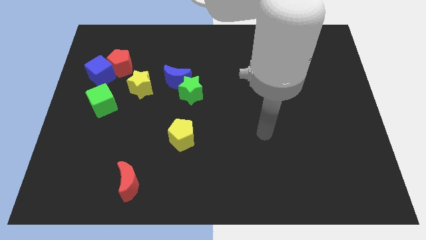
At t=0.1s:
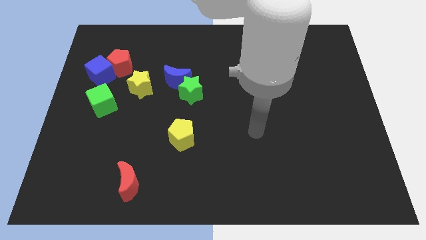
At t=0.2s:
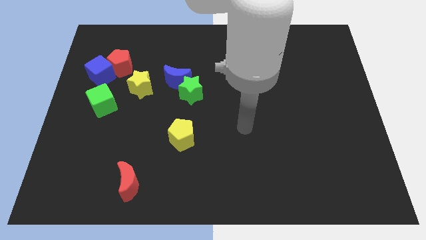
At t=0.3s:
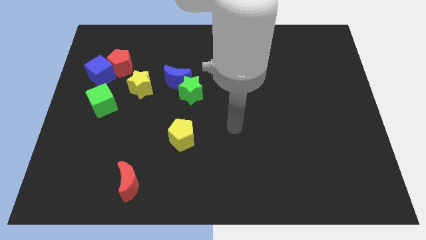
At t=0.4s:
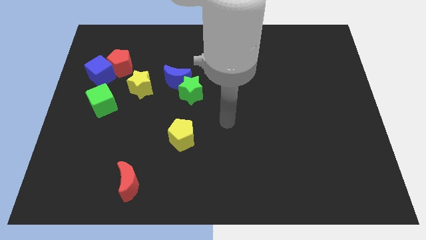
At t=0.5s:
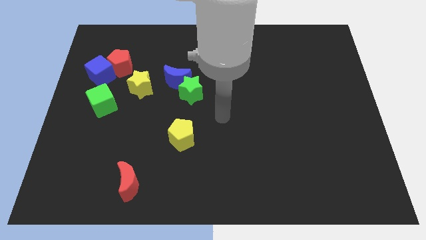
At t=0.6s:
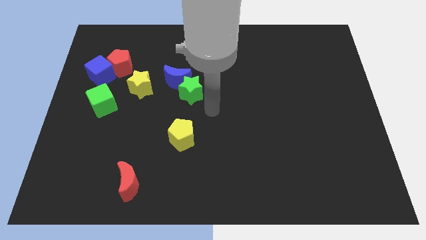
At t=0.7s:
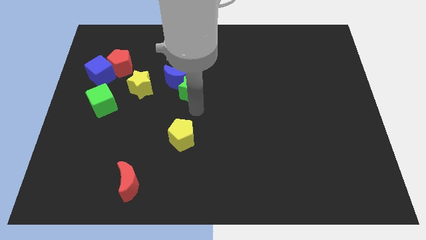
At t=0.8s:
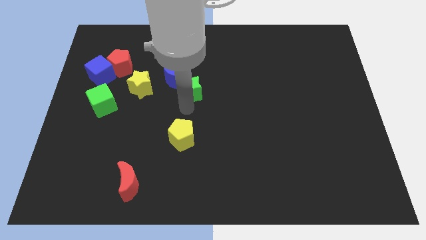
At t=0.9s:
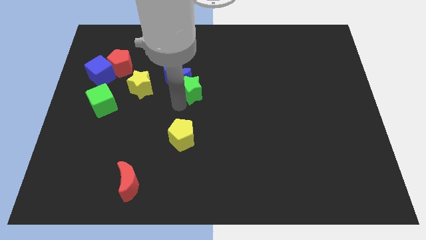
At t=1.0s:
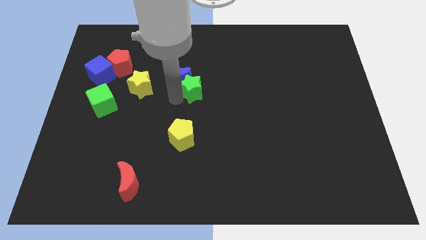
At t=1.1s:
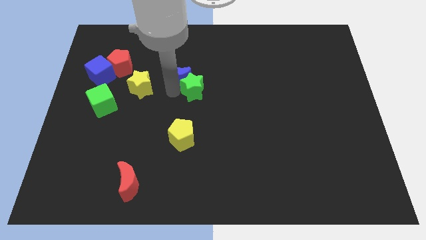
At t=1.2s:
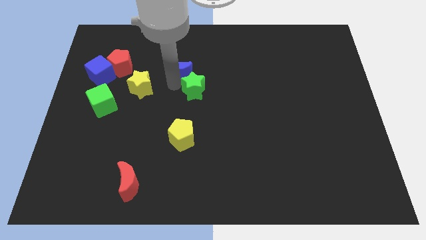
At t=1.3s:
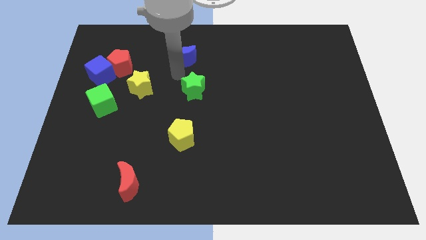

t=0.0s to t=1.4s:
separate the green star from the blue moon

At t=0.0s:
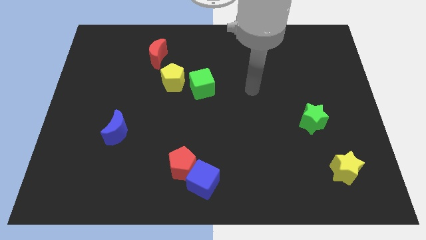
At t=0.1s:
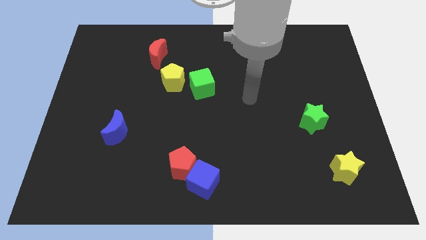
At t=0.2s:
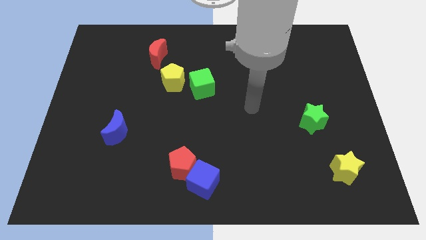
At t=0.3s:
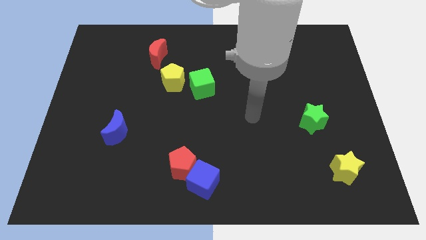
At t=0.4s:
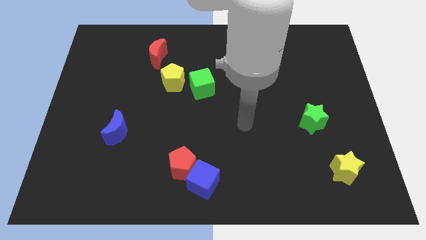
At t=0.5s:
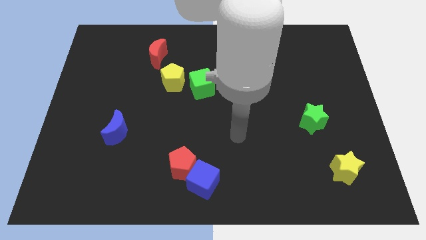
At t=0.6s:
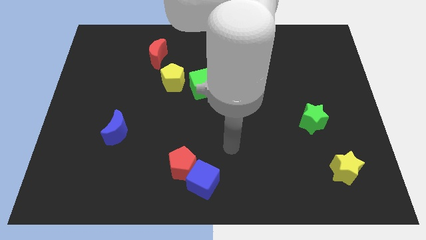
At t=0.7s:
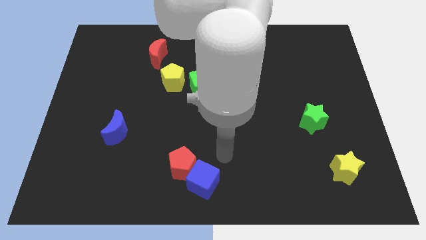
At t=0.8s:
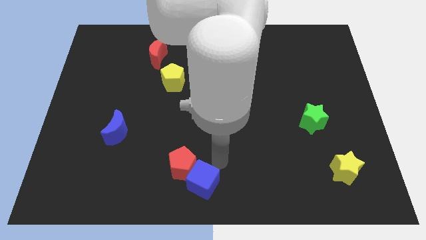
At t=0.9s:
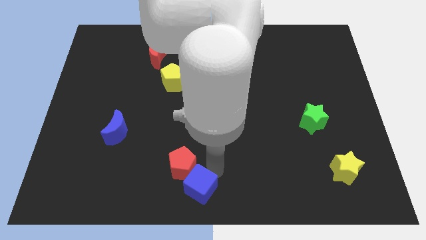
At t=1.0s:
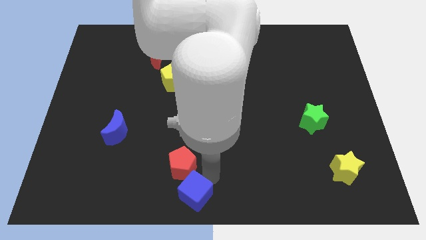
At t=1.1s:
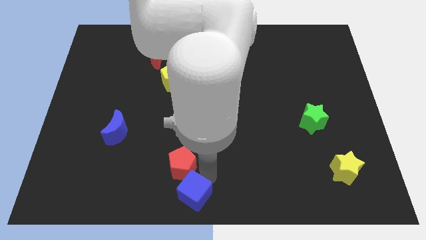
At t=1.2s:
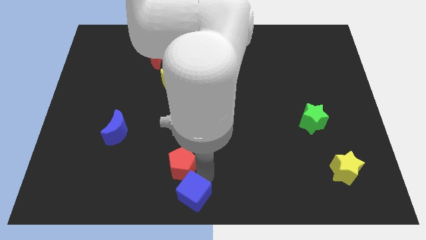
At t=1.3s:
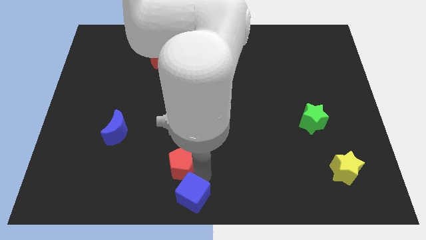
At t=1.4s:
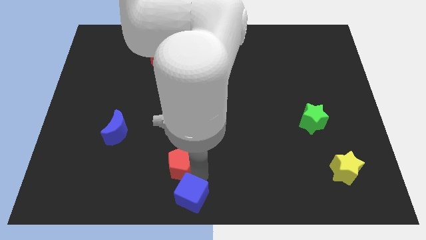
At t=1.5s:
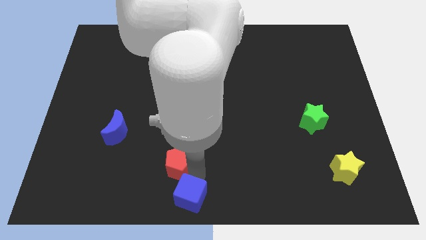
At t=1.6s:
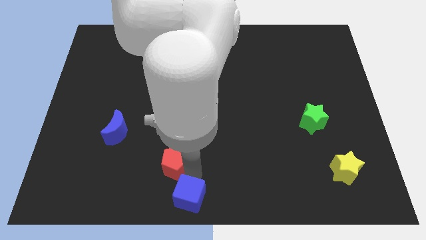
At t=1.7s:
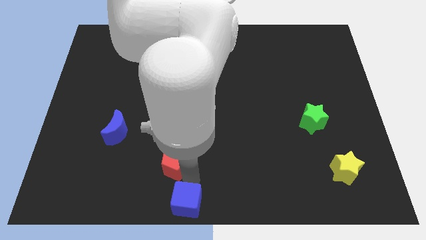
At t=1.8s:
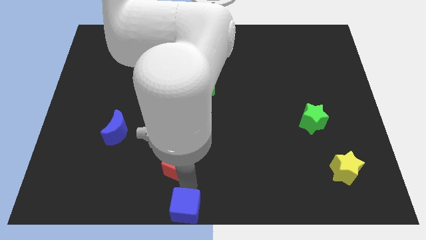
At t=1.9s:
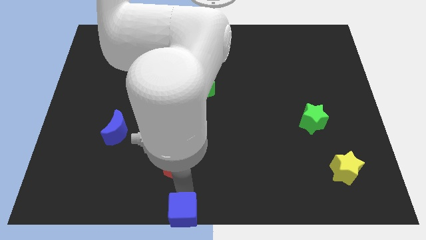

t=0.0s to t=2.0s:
pull the red pentagon apart from the blue cube

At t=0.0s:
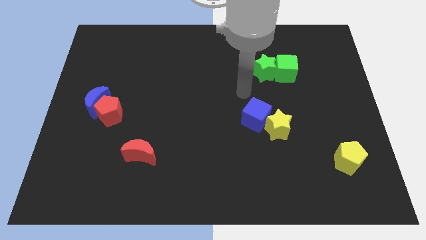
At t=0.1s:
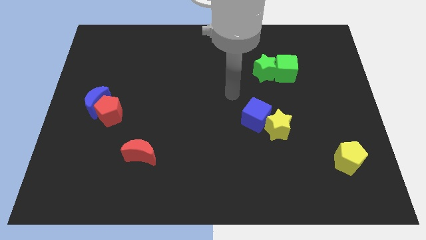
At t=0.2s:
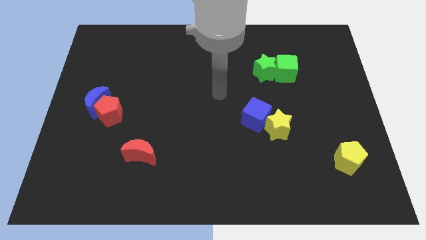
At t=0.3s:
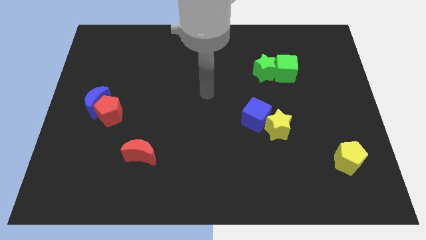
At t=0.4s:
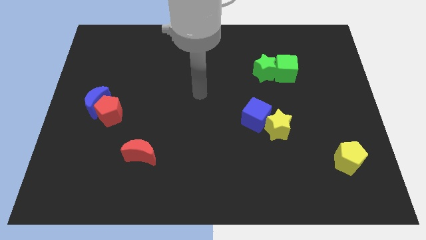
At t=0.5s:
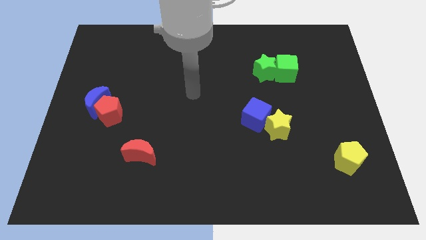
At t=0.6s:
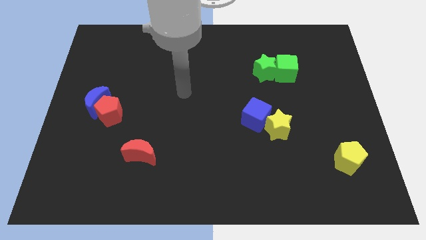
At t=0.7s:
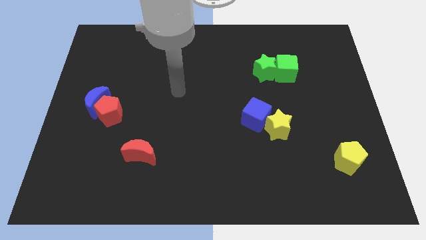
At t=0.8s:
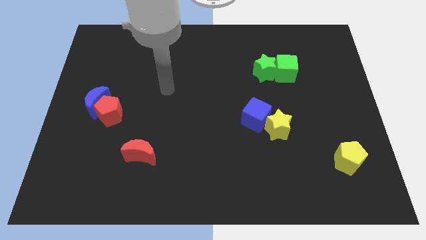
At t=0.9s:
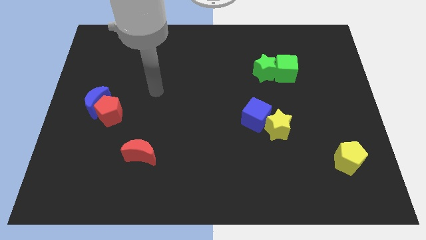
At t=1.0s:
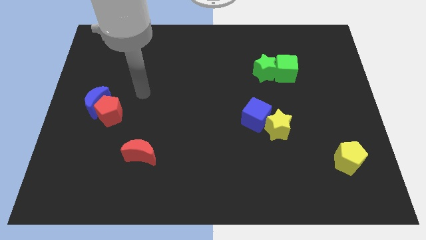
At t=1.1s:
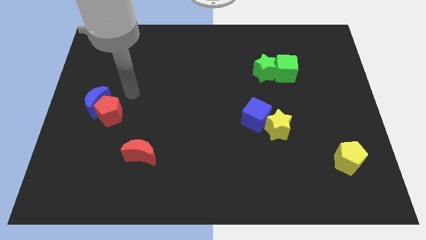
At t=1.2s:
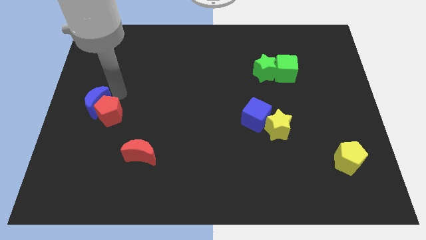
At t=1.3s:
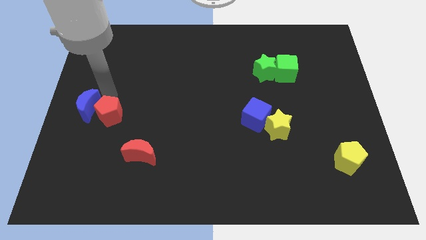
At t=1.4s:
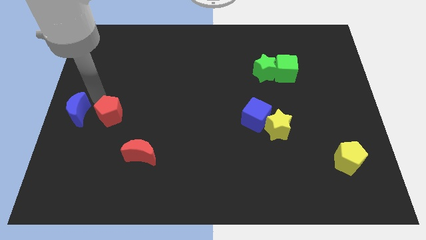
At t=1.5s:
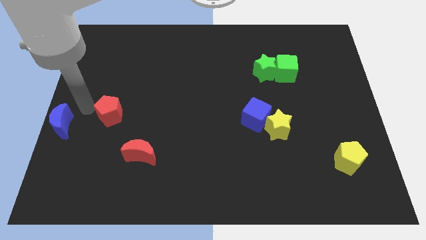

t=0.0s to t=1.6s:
pull the red pentagon apart from the blue moon

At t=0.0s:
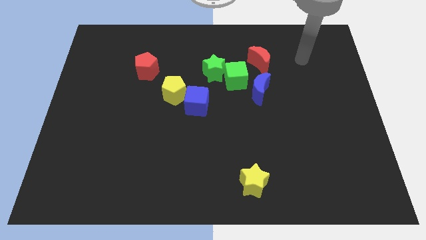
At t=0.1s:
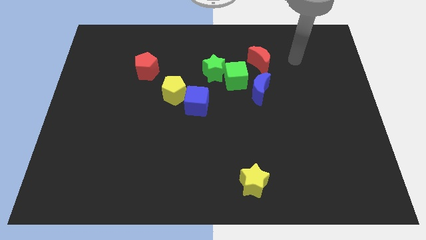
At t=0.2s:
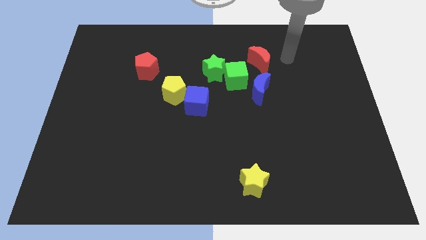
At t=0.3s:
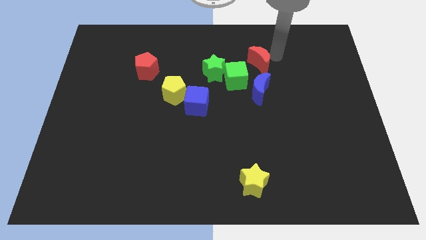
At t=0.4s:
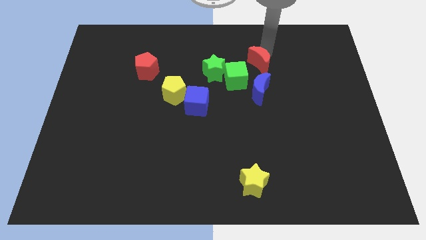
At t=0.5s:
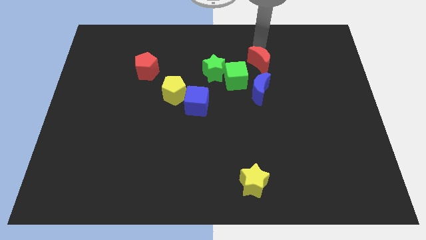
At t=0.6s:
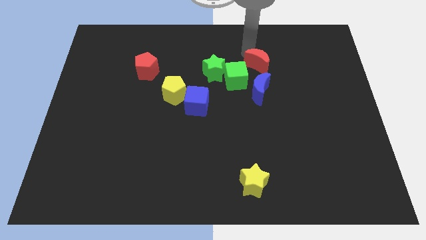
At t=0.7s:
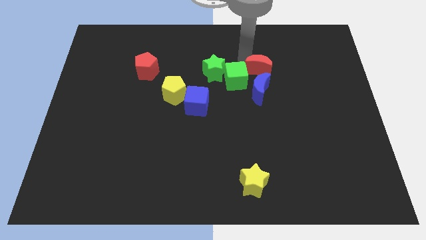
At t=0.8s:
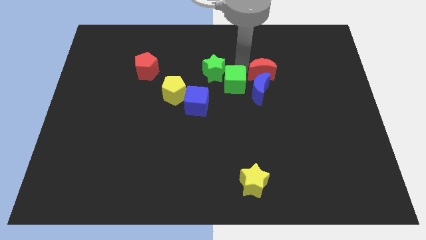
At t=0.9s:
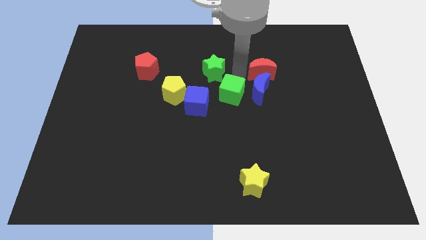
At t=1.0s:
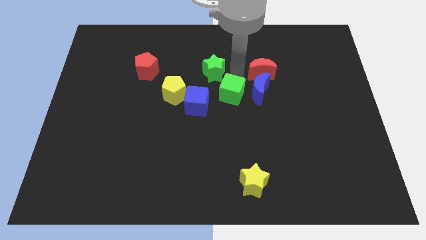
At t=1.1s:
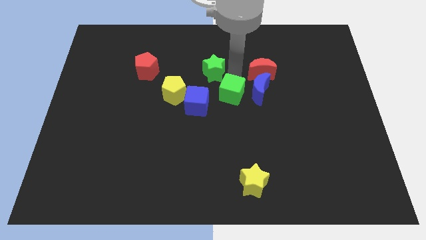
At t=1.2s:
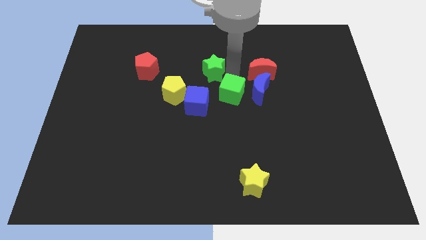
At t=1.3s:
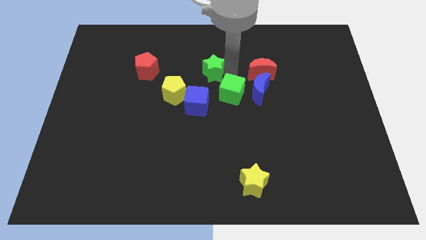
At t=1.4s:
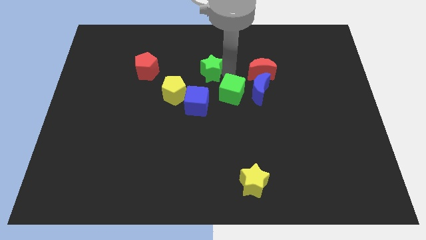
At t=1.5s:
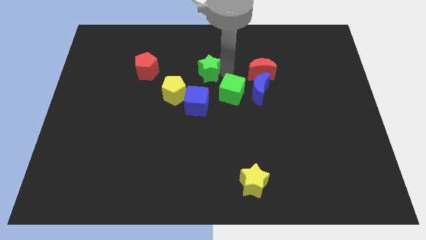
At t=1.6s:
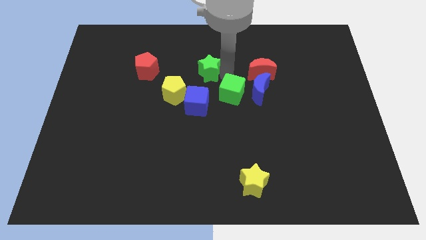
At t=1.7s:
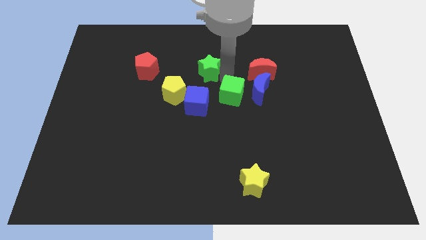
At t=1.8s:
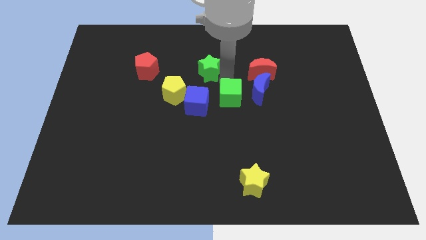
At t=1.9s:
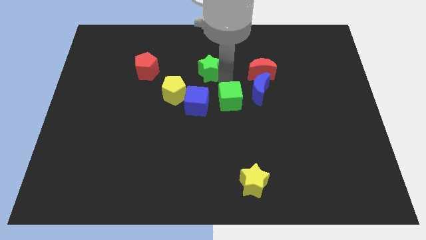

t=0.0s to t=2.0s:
move the green star away from the green cube

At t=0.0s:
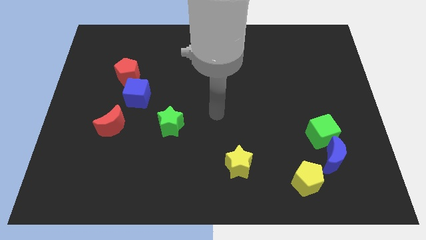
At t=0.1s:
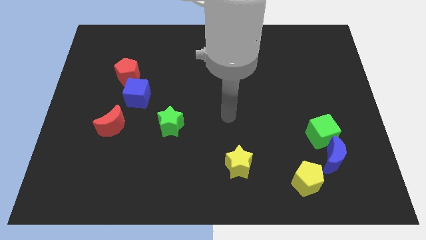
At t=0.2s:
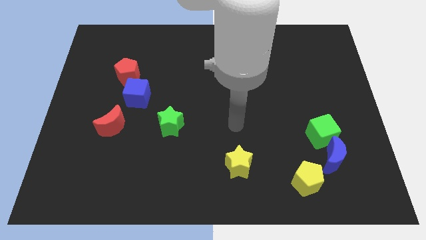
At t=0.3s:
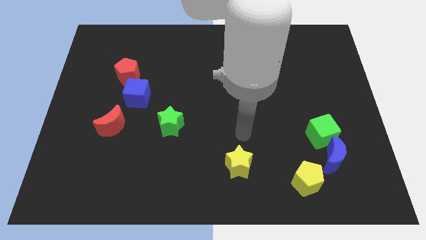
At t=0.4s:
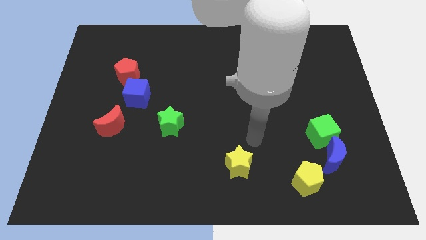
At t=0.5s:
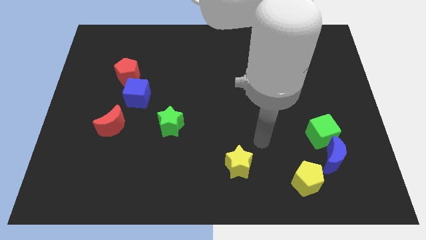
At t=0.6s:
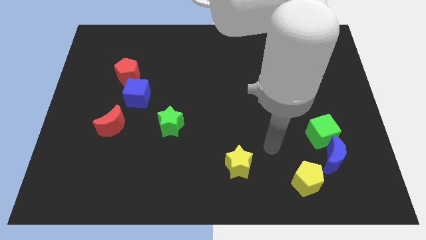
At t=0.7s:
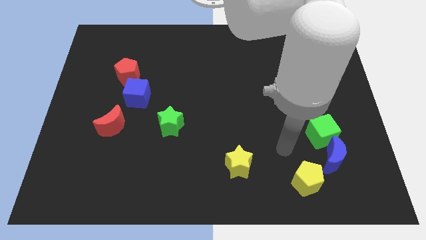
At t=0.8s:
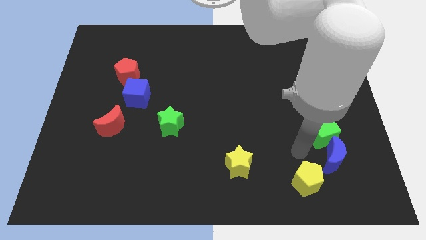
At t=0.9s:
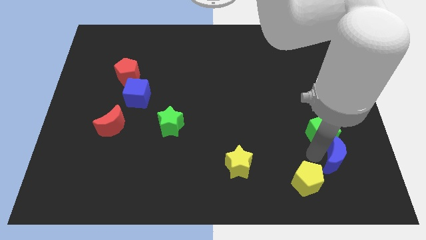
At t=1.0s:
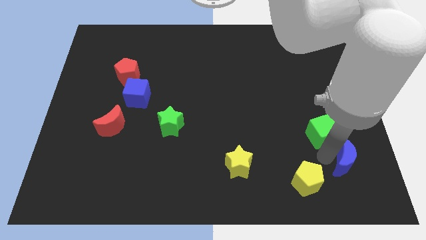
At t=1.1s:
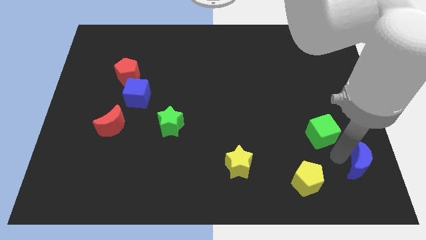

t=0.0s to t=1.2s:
separate the green cube from the blue moon

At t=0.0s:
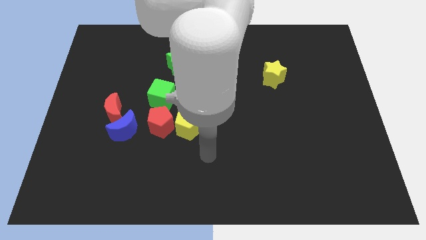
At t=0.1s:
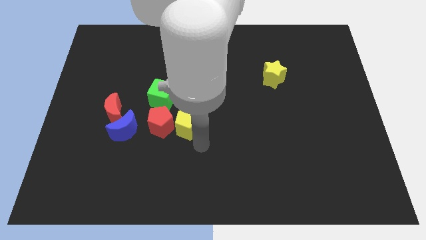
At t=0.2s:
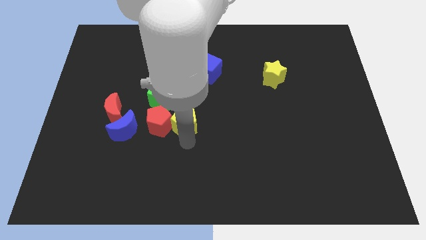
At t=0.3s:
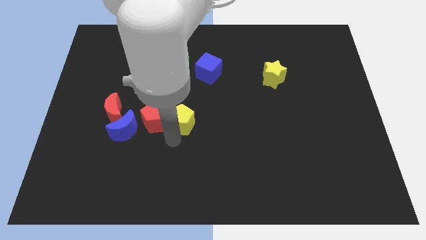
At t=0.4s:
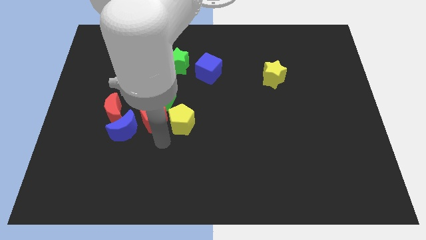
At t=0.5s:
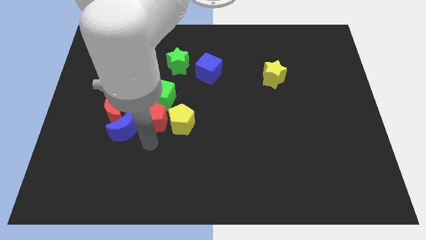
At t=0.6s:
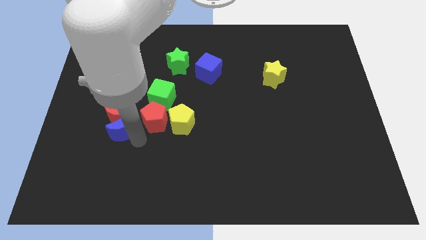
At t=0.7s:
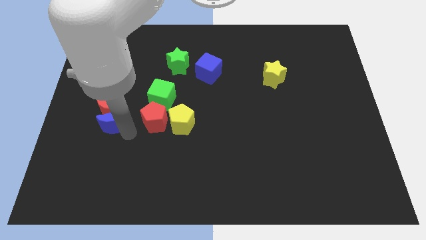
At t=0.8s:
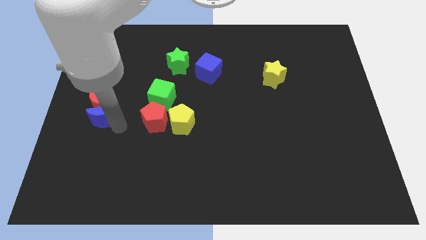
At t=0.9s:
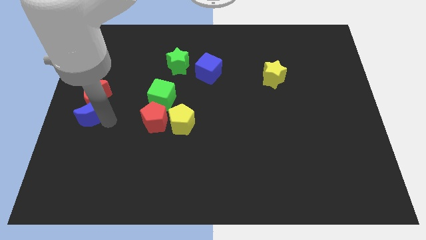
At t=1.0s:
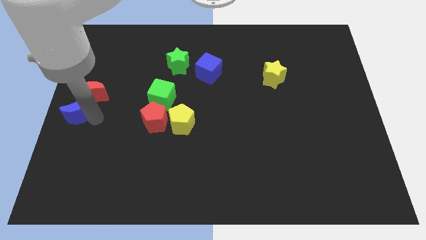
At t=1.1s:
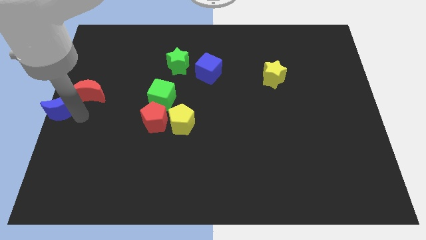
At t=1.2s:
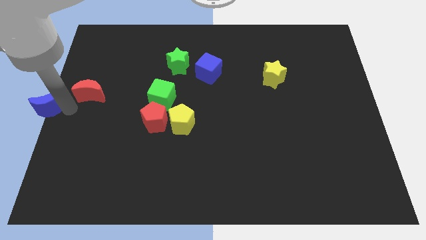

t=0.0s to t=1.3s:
pull the red moon apart from the blue moon
